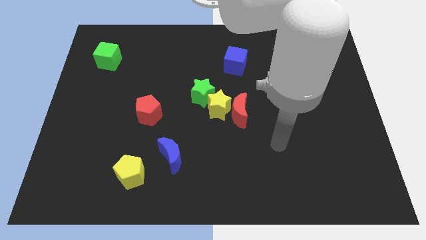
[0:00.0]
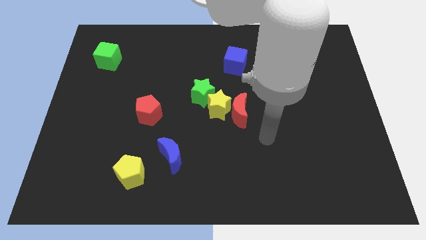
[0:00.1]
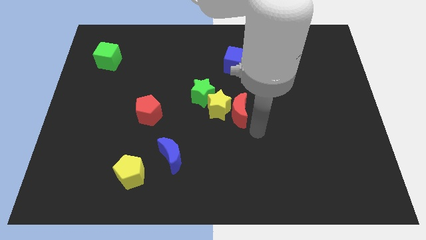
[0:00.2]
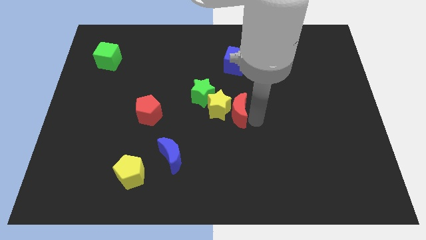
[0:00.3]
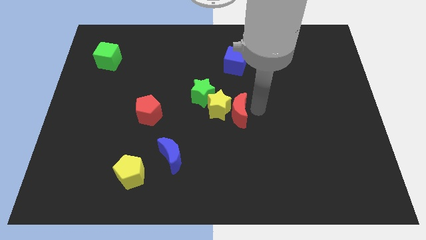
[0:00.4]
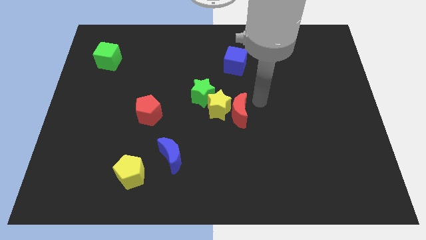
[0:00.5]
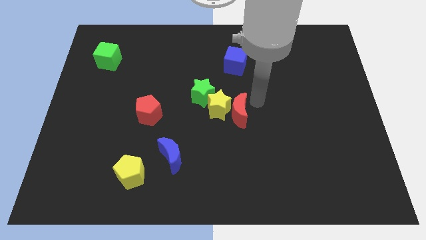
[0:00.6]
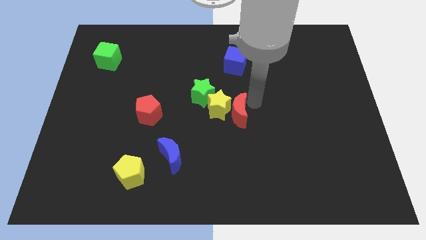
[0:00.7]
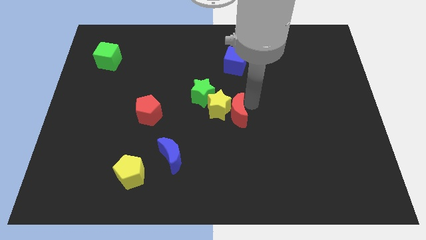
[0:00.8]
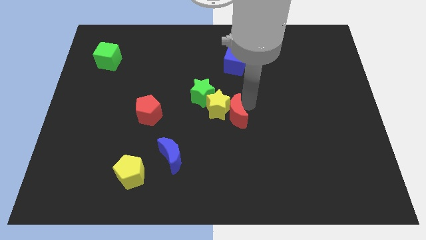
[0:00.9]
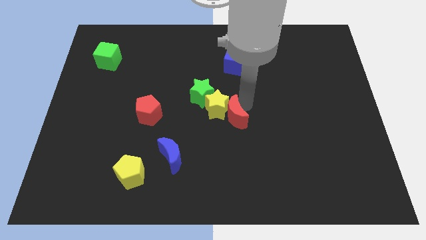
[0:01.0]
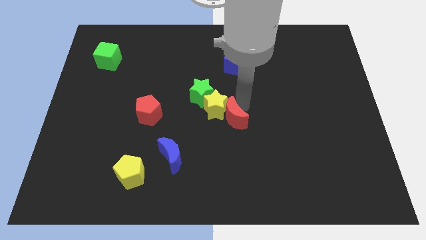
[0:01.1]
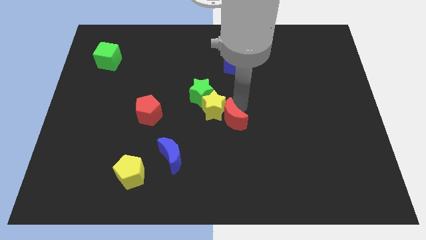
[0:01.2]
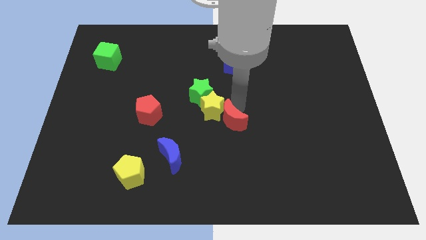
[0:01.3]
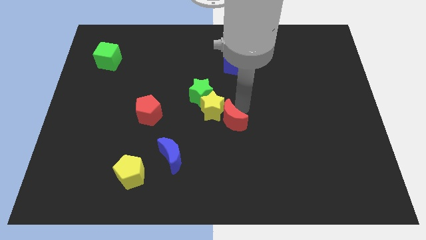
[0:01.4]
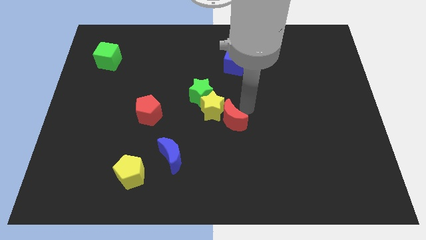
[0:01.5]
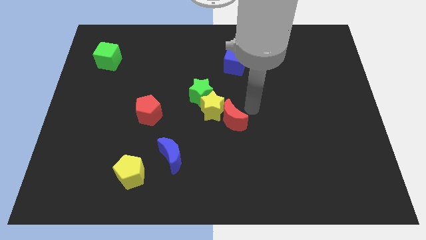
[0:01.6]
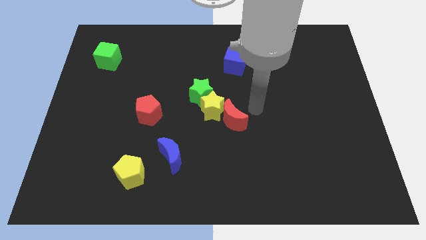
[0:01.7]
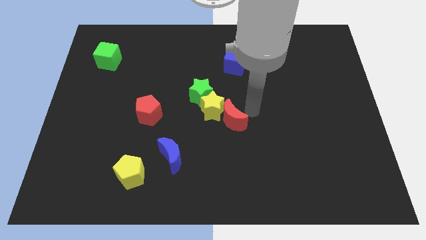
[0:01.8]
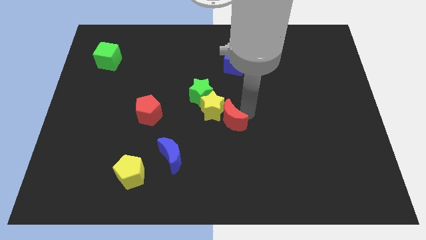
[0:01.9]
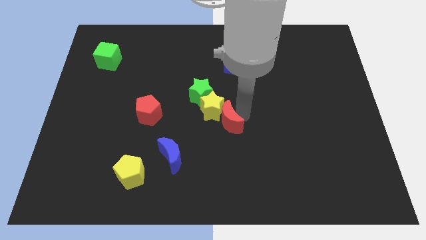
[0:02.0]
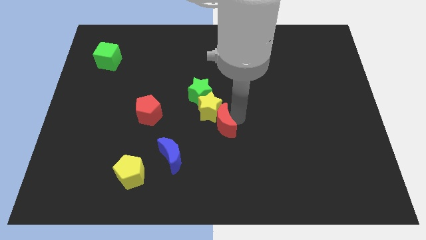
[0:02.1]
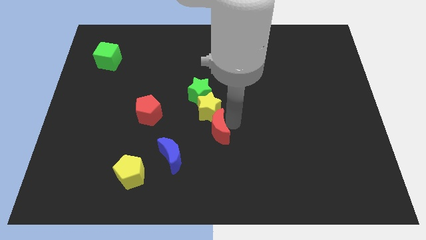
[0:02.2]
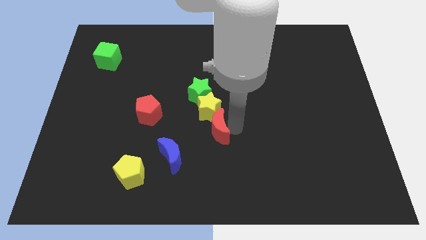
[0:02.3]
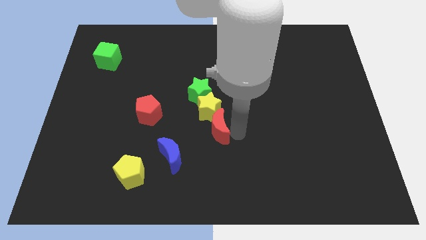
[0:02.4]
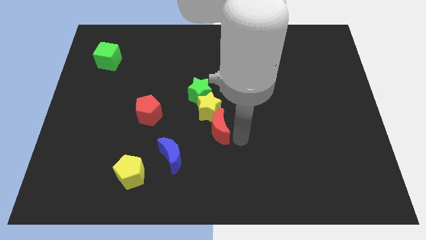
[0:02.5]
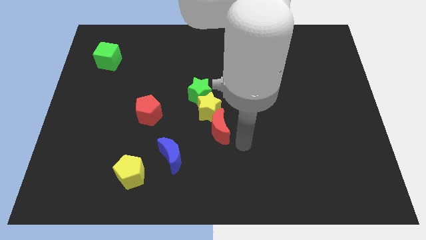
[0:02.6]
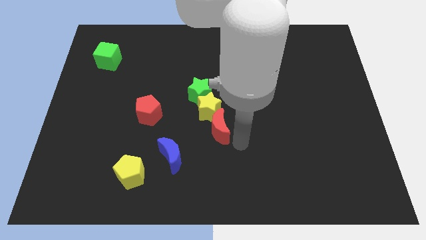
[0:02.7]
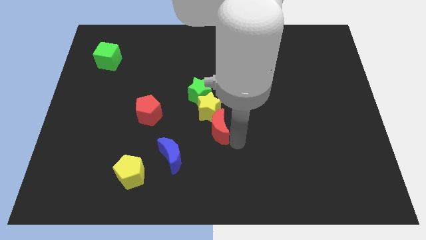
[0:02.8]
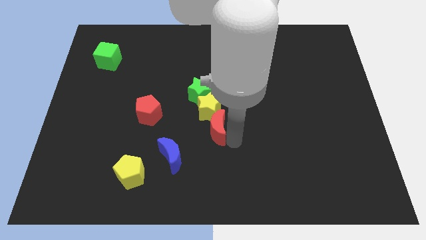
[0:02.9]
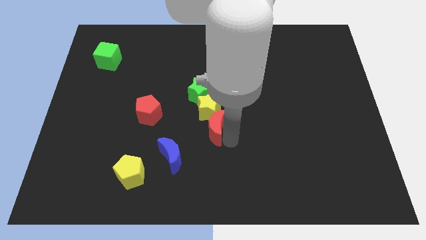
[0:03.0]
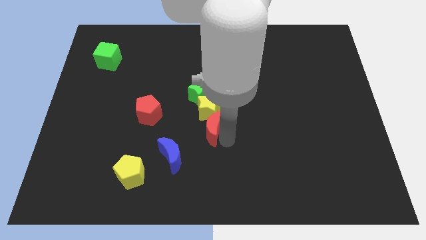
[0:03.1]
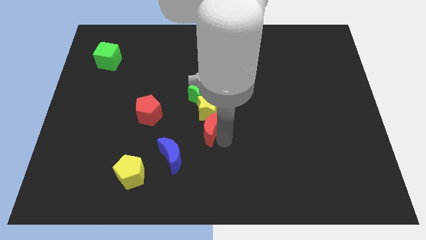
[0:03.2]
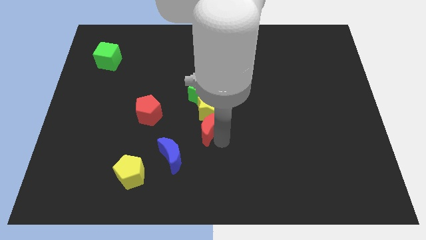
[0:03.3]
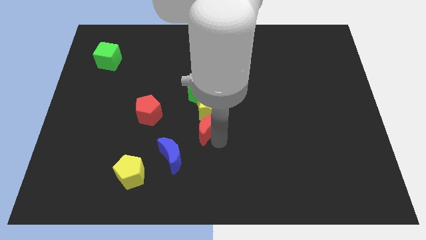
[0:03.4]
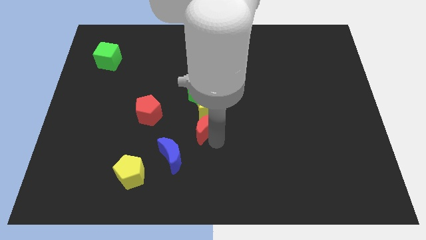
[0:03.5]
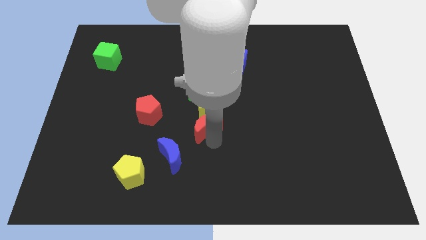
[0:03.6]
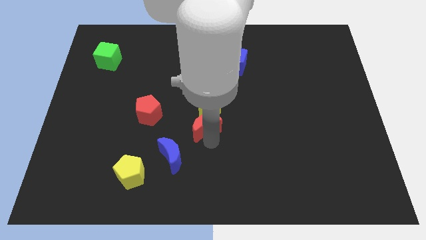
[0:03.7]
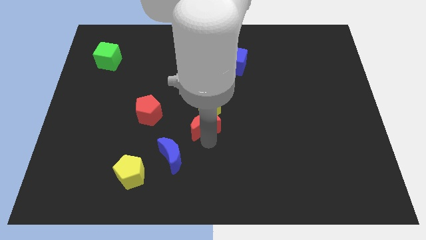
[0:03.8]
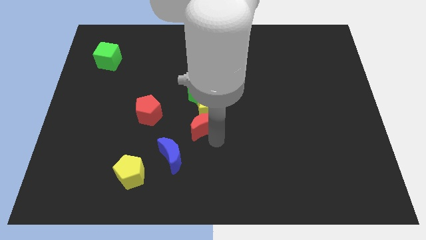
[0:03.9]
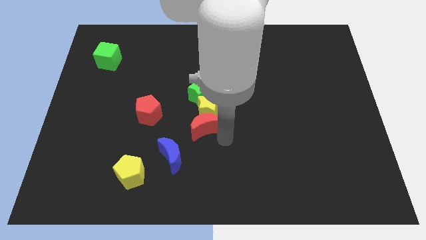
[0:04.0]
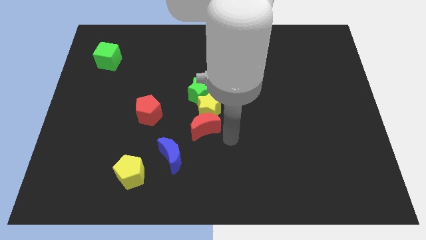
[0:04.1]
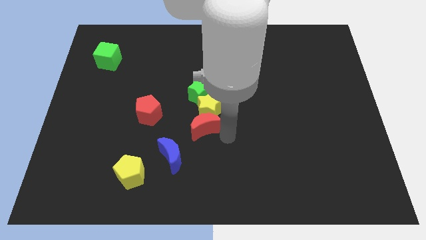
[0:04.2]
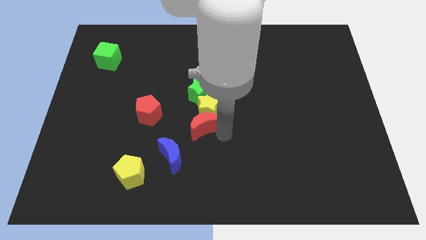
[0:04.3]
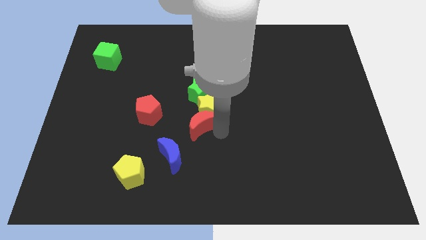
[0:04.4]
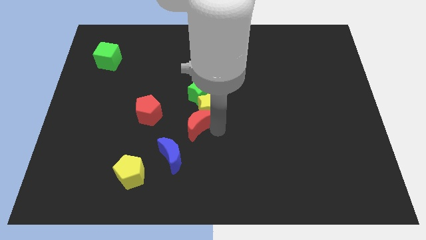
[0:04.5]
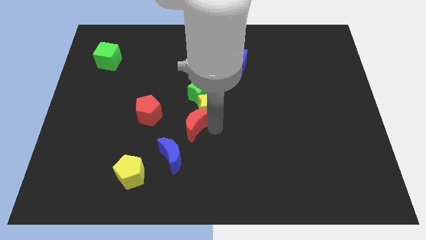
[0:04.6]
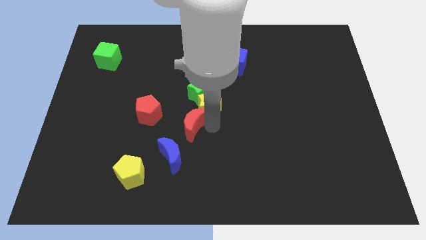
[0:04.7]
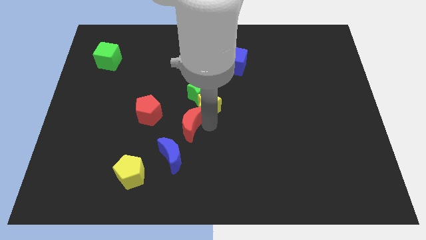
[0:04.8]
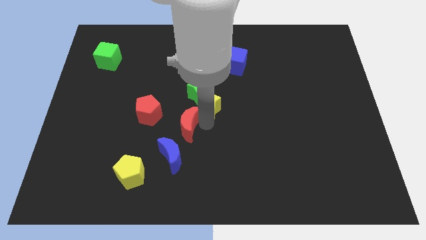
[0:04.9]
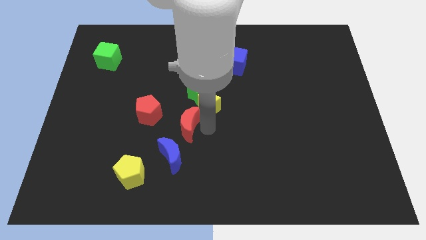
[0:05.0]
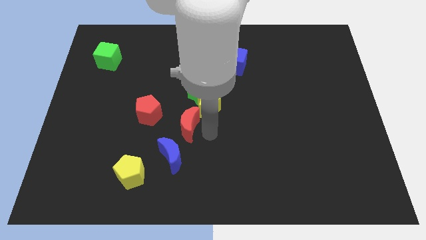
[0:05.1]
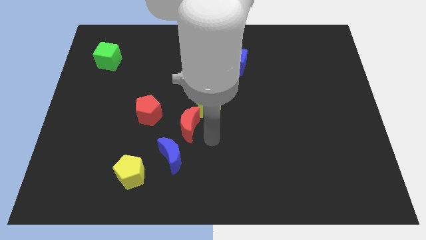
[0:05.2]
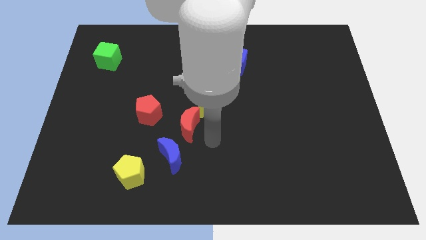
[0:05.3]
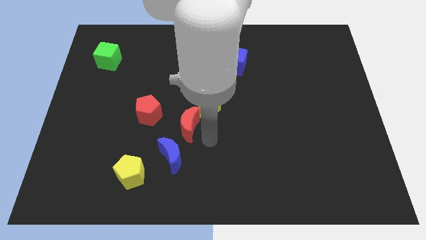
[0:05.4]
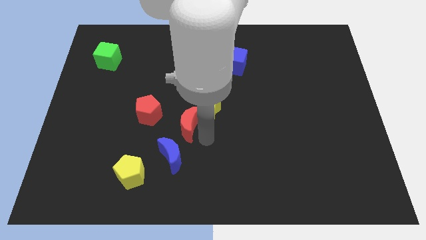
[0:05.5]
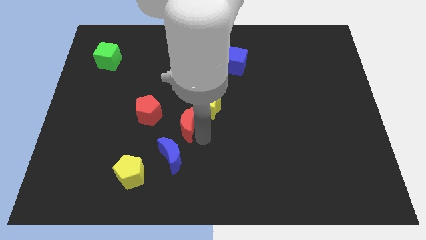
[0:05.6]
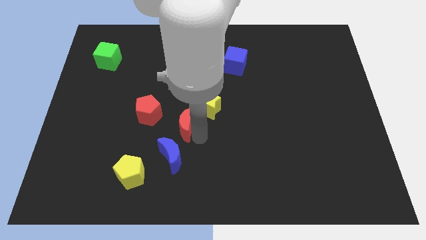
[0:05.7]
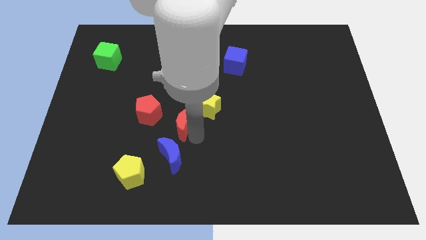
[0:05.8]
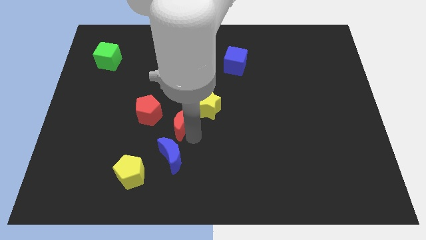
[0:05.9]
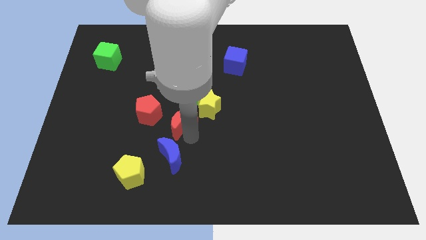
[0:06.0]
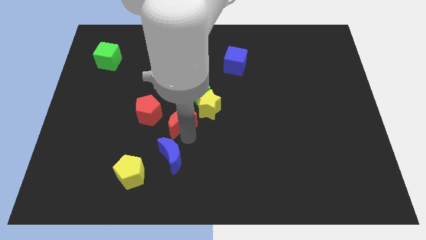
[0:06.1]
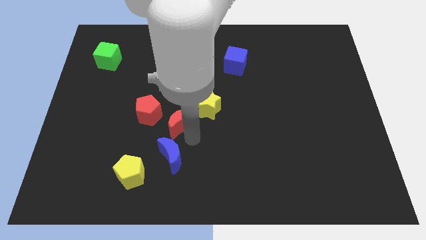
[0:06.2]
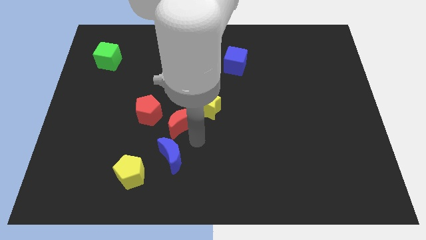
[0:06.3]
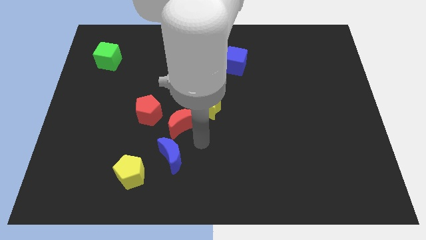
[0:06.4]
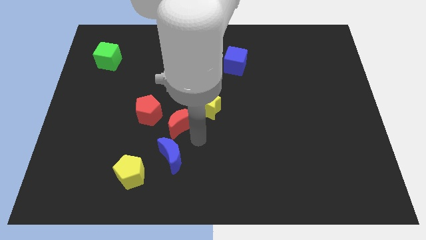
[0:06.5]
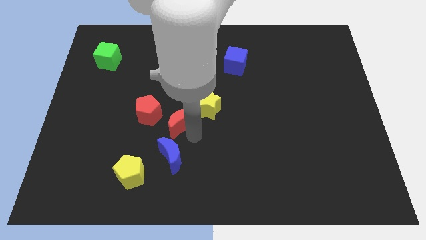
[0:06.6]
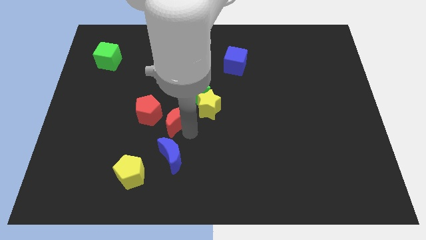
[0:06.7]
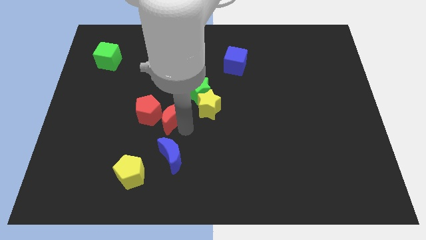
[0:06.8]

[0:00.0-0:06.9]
move the red moon towards the red pentagon
